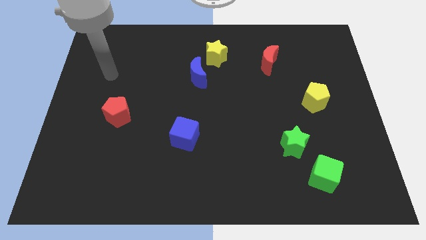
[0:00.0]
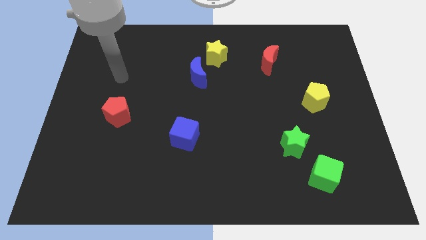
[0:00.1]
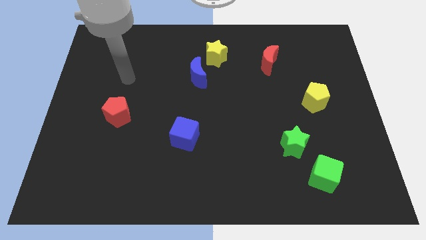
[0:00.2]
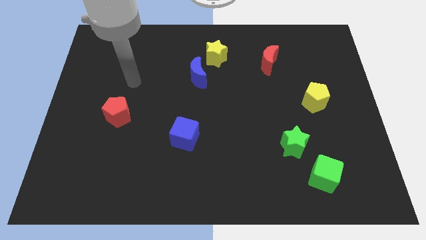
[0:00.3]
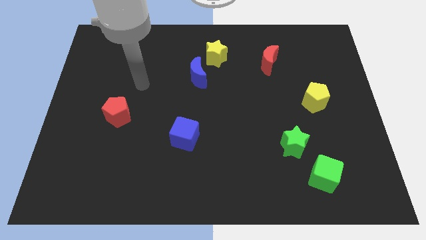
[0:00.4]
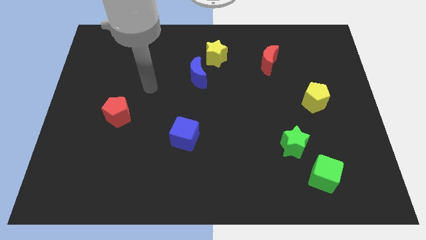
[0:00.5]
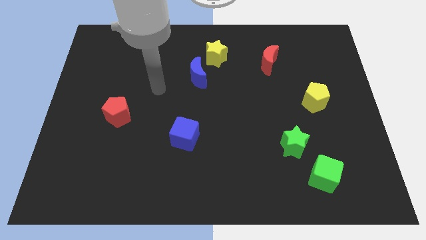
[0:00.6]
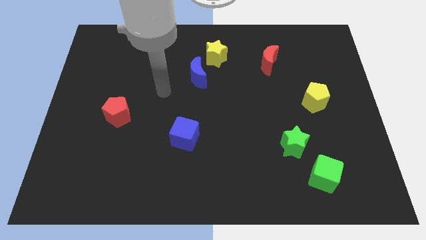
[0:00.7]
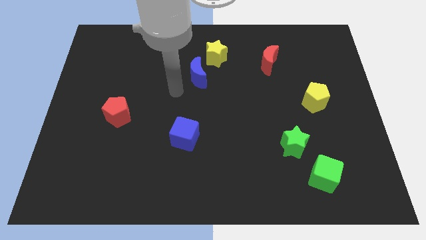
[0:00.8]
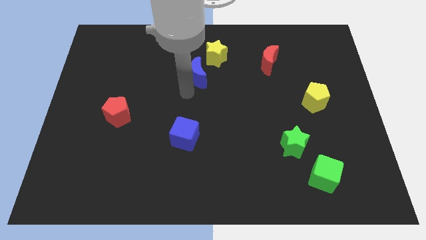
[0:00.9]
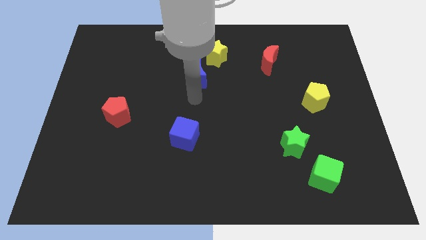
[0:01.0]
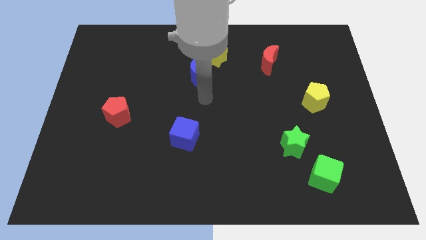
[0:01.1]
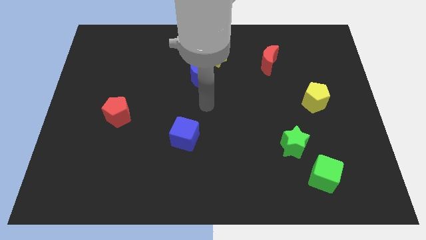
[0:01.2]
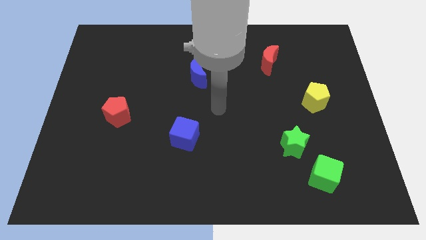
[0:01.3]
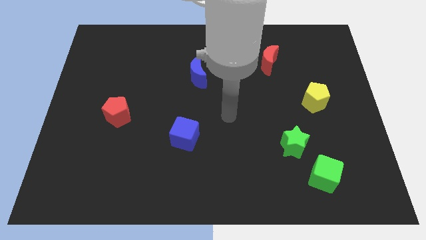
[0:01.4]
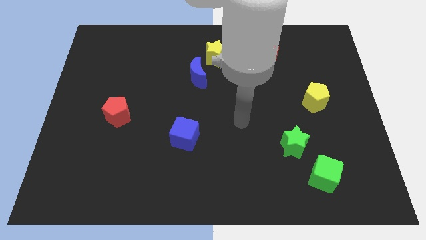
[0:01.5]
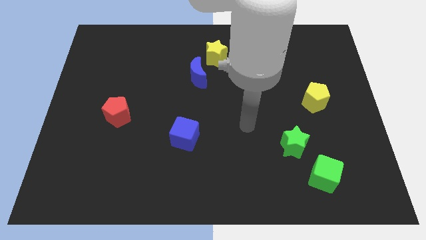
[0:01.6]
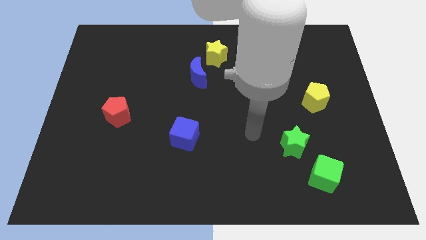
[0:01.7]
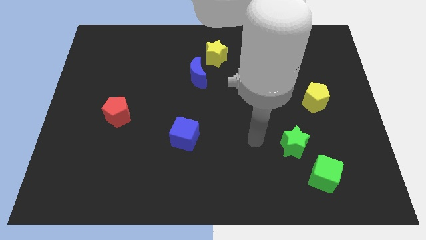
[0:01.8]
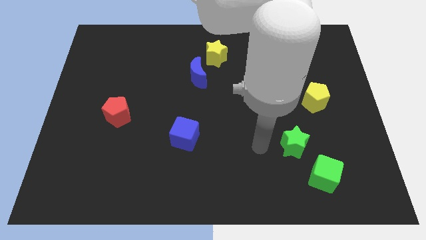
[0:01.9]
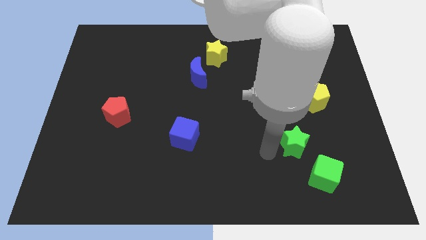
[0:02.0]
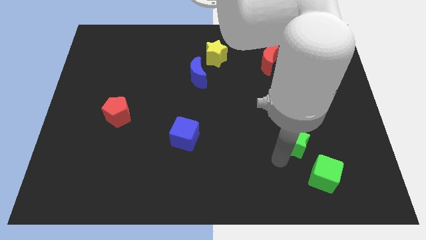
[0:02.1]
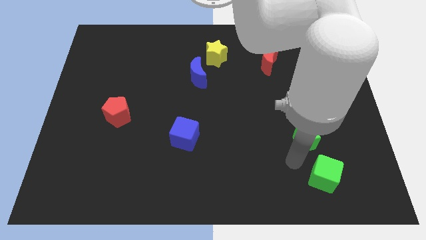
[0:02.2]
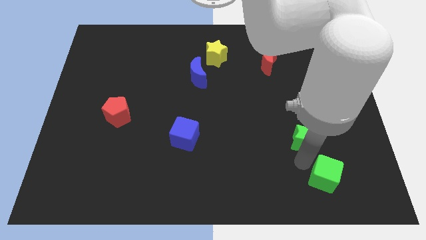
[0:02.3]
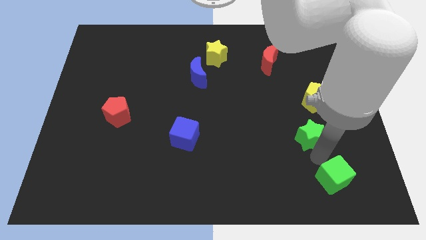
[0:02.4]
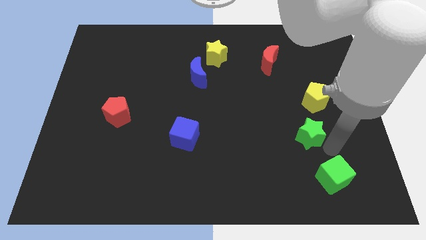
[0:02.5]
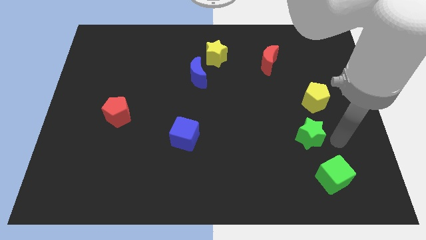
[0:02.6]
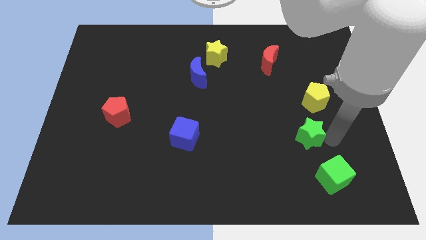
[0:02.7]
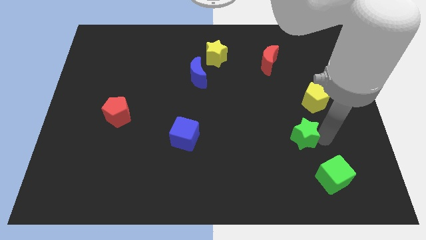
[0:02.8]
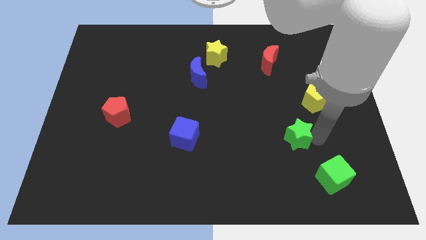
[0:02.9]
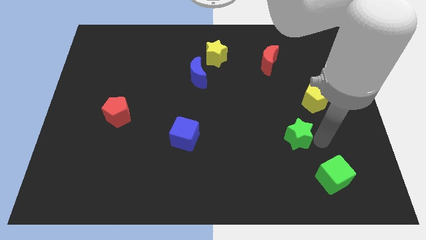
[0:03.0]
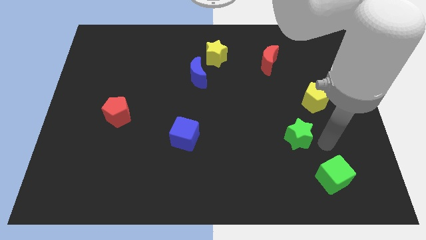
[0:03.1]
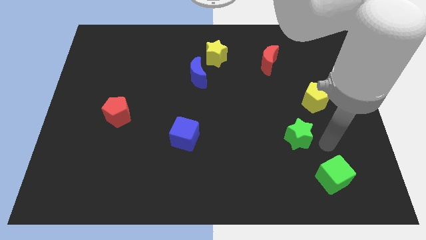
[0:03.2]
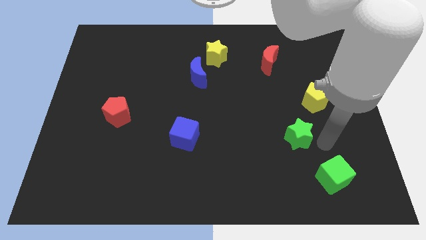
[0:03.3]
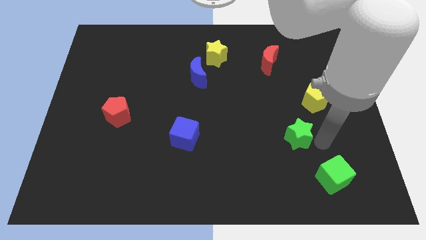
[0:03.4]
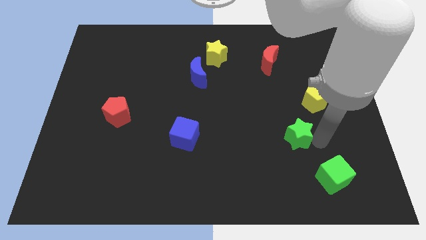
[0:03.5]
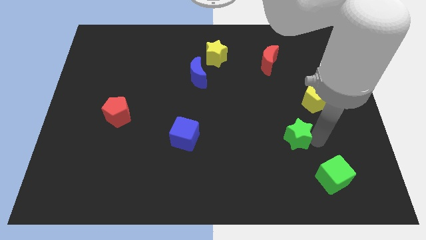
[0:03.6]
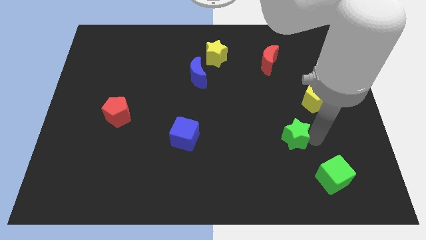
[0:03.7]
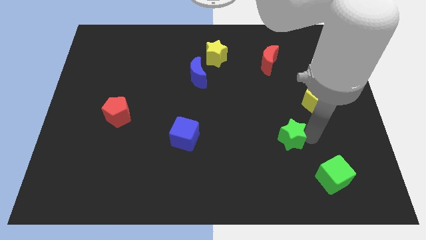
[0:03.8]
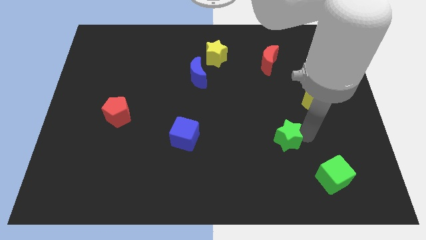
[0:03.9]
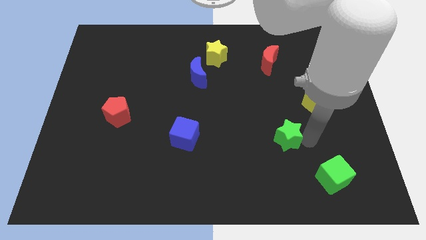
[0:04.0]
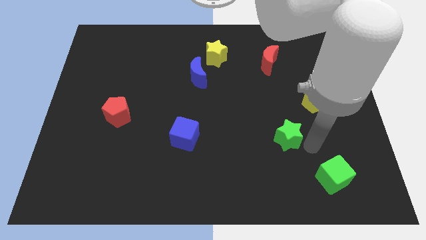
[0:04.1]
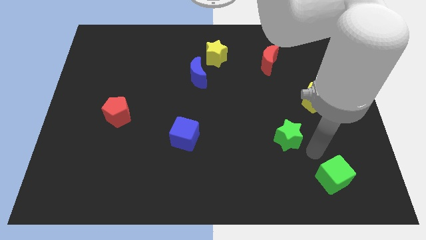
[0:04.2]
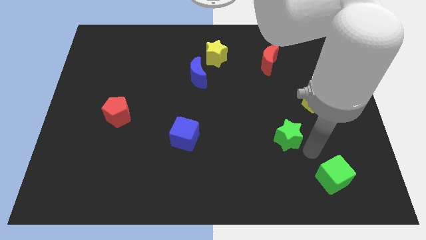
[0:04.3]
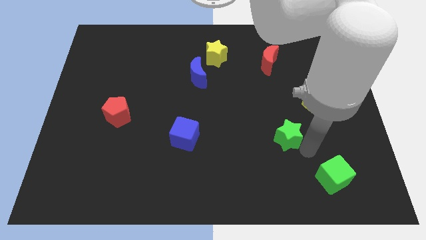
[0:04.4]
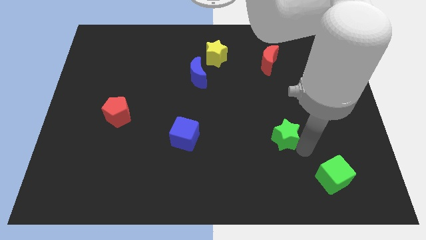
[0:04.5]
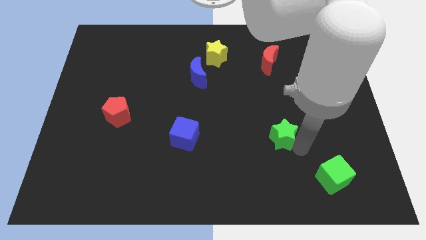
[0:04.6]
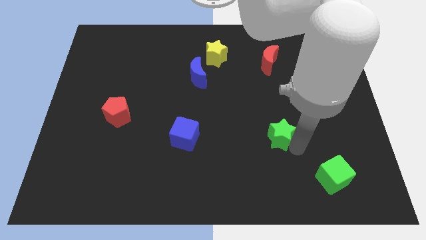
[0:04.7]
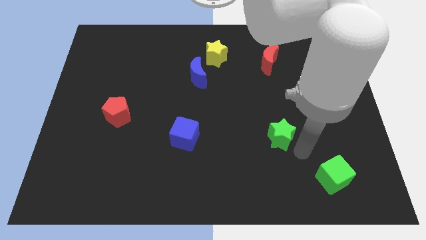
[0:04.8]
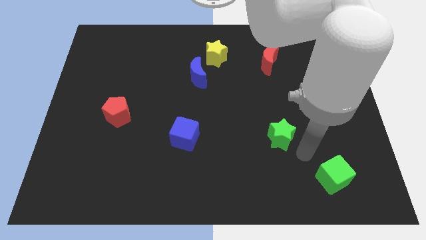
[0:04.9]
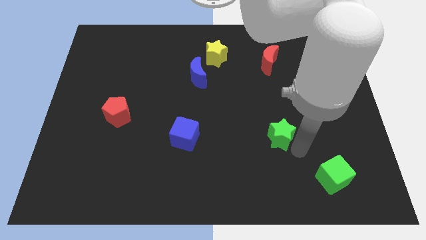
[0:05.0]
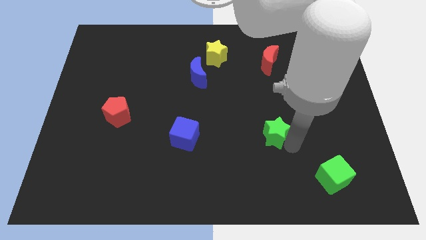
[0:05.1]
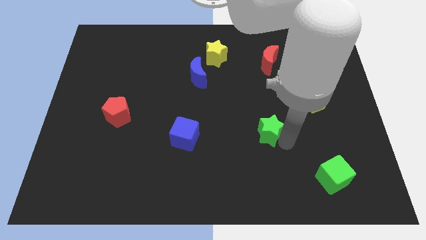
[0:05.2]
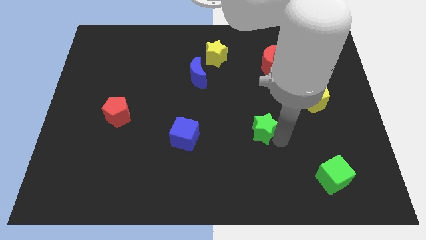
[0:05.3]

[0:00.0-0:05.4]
slightly move the green star diagonally up and to the left

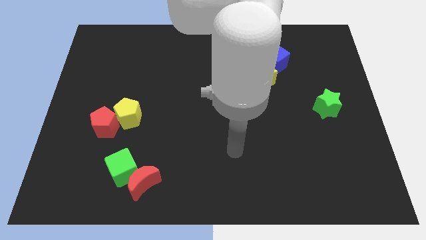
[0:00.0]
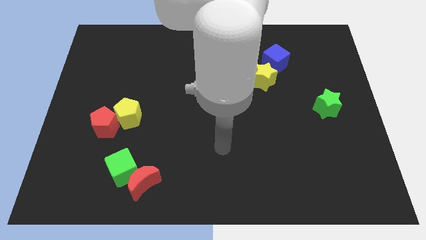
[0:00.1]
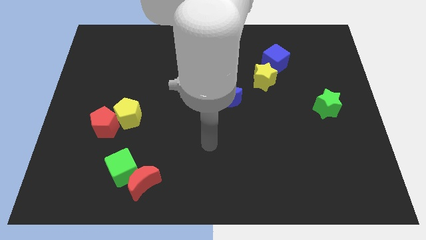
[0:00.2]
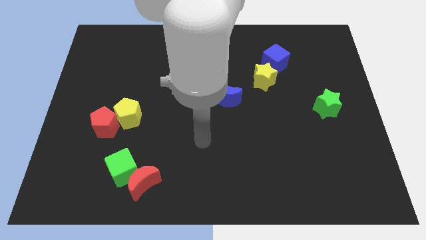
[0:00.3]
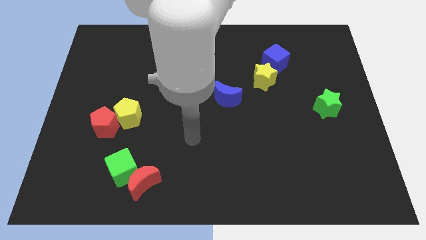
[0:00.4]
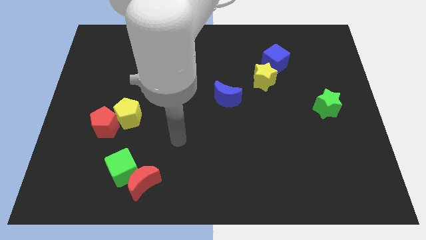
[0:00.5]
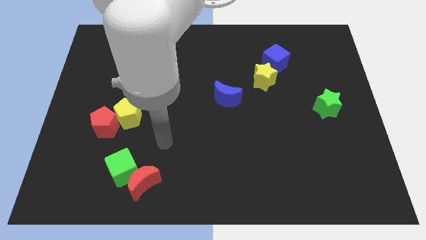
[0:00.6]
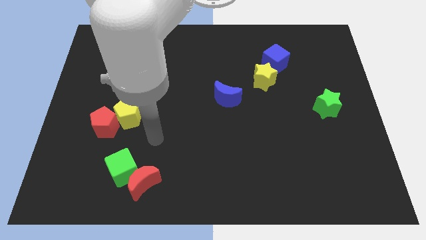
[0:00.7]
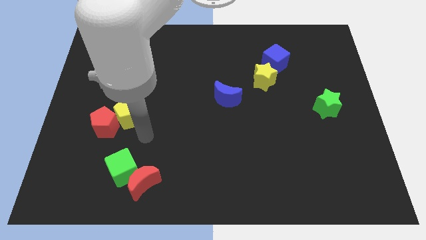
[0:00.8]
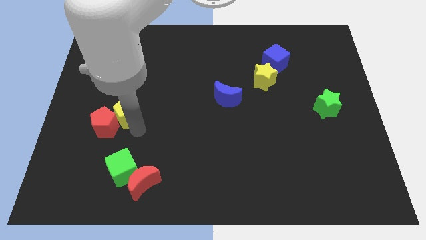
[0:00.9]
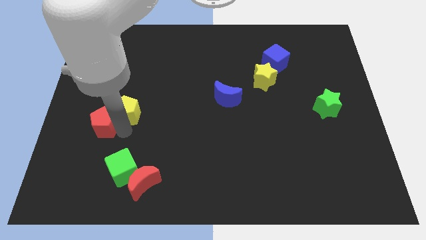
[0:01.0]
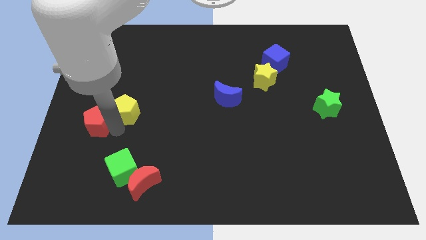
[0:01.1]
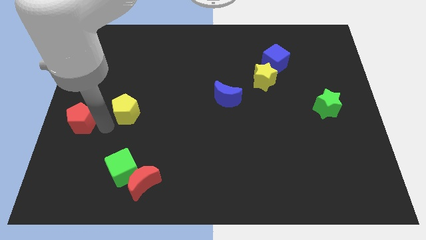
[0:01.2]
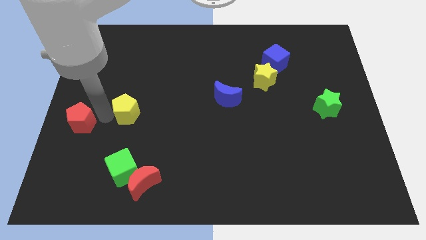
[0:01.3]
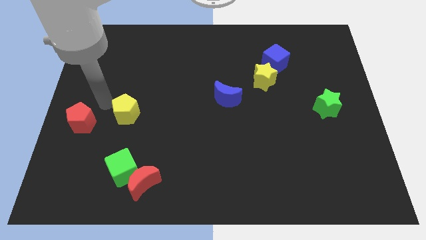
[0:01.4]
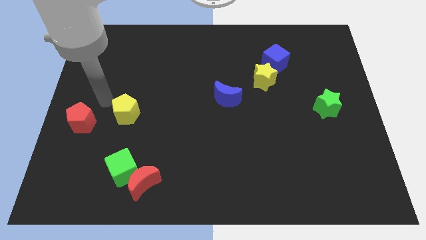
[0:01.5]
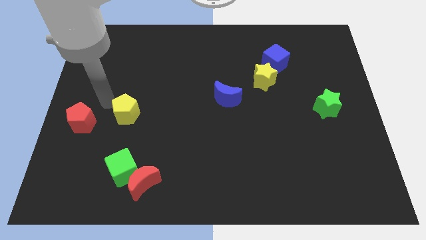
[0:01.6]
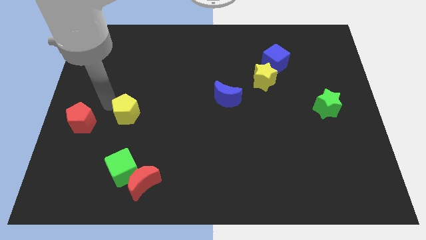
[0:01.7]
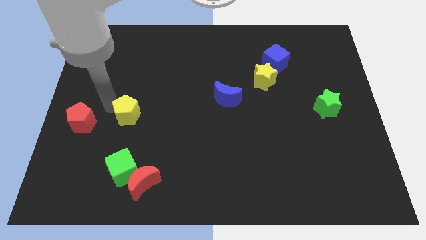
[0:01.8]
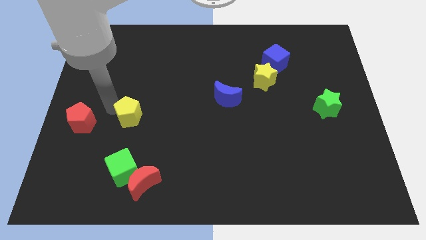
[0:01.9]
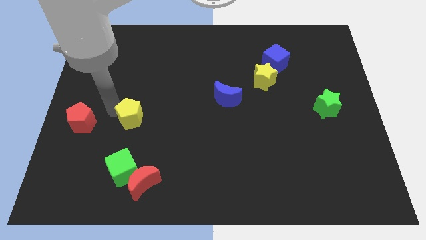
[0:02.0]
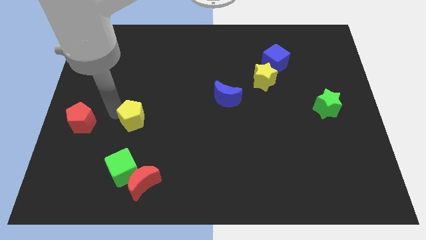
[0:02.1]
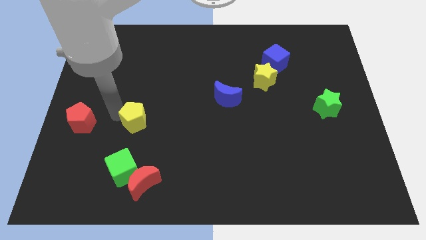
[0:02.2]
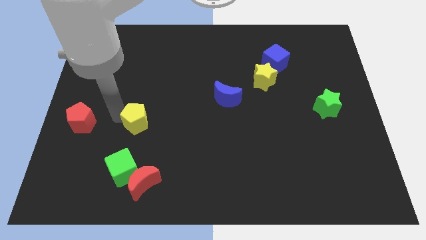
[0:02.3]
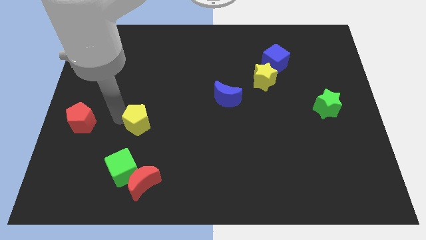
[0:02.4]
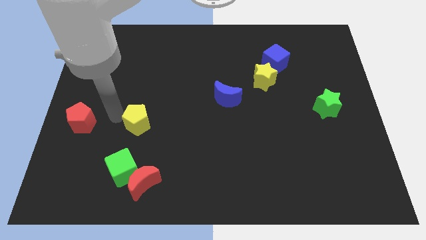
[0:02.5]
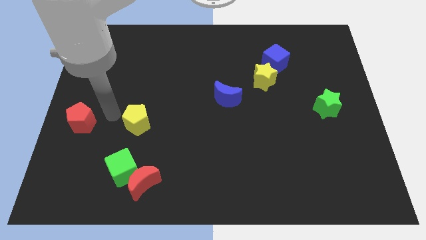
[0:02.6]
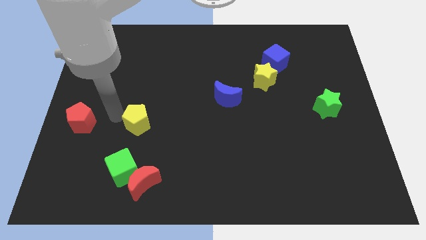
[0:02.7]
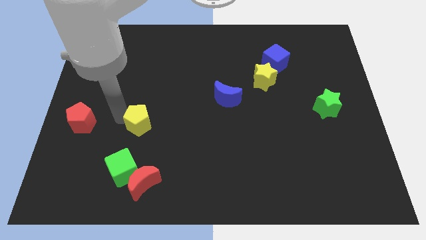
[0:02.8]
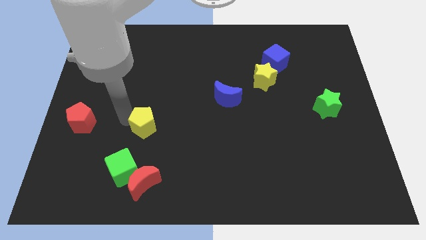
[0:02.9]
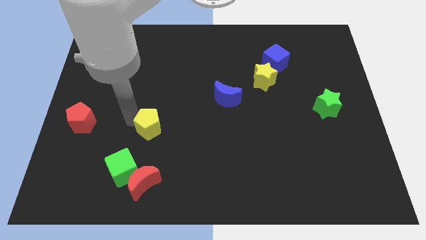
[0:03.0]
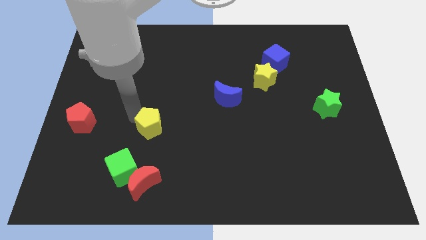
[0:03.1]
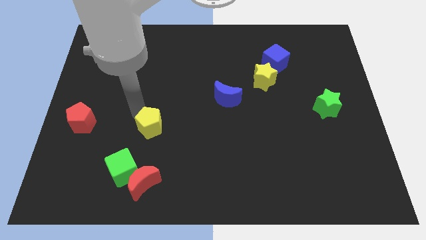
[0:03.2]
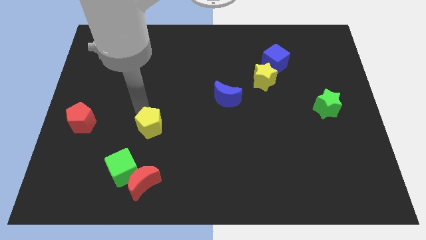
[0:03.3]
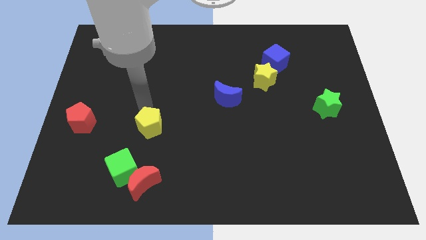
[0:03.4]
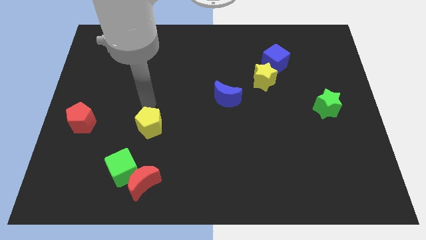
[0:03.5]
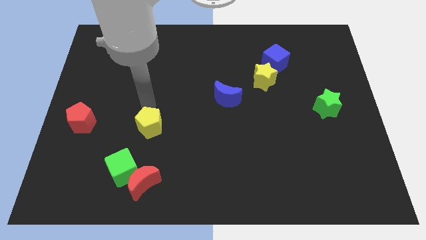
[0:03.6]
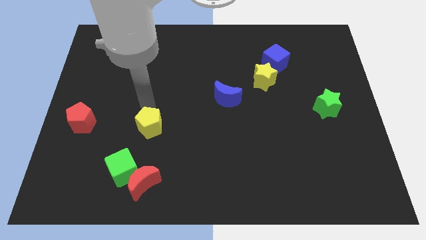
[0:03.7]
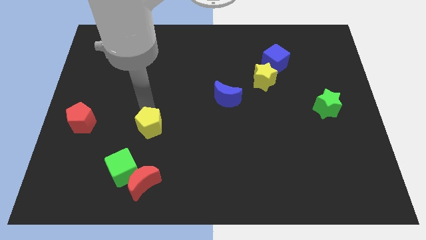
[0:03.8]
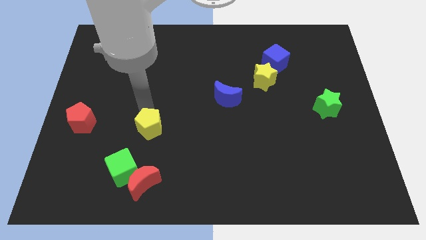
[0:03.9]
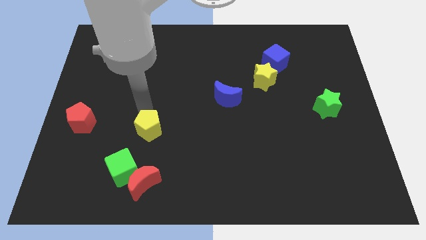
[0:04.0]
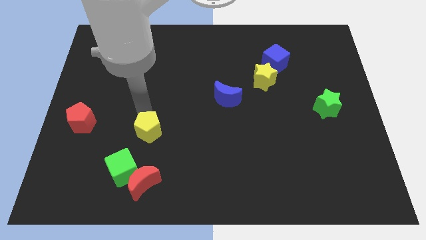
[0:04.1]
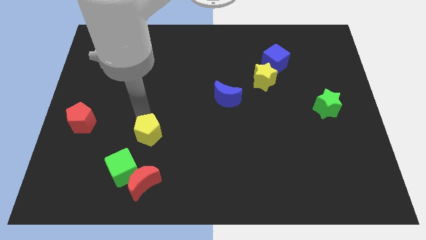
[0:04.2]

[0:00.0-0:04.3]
slightly move the yellow pentagon downwards and right
